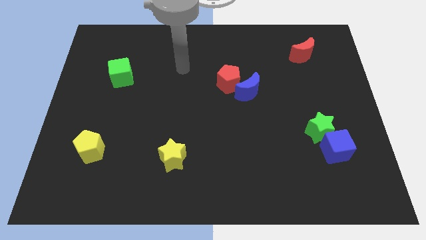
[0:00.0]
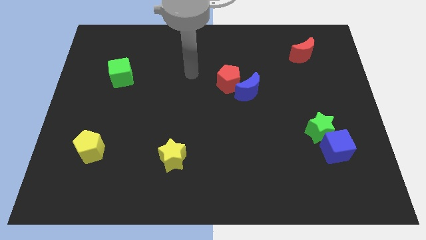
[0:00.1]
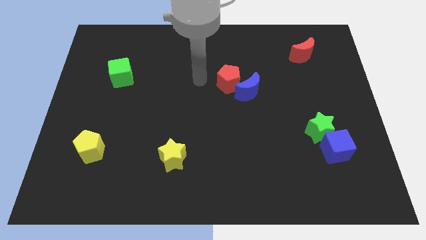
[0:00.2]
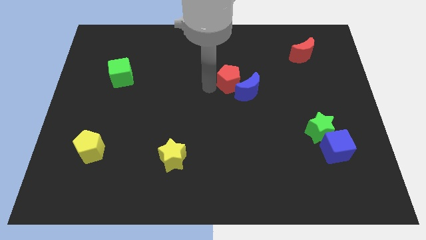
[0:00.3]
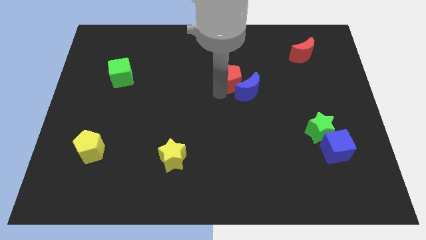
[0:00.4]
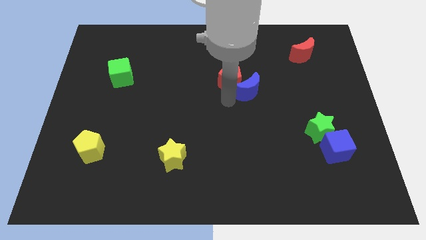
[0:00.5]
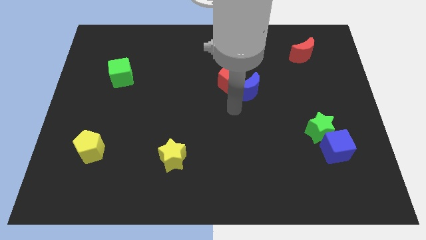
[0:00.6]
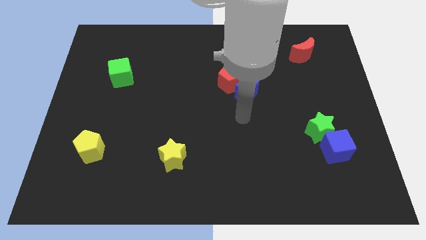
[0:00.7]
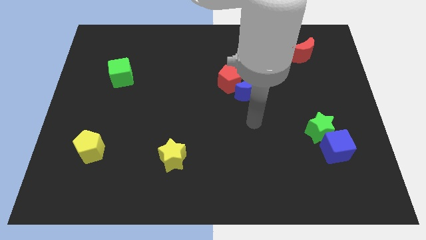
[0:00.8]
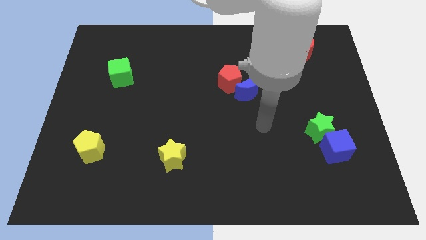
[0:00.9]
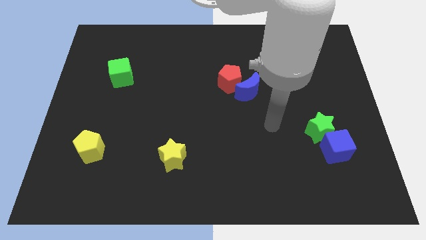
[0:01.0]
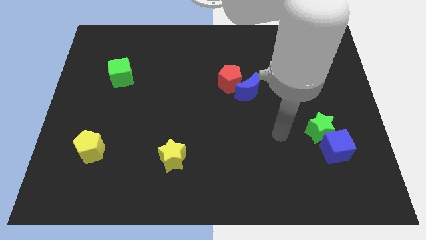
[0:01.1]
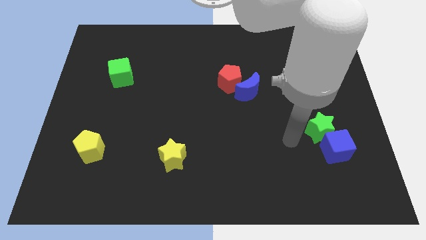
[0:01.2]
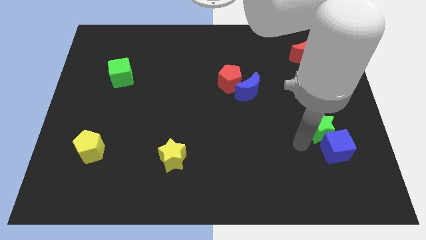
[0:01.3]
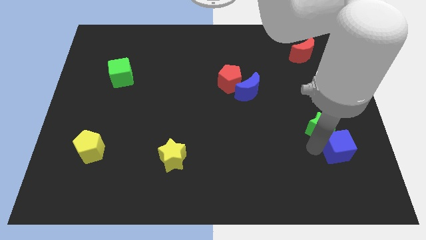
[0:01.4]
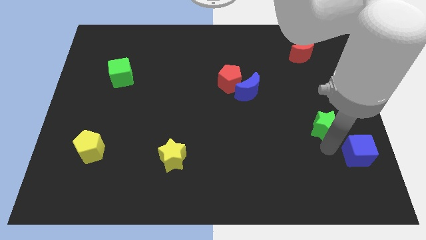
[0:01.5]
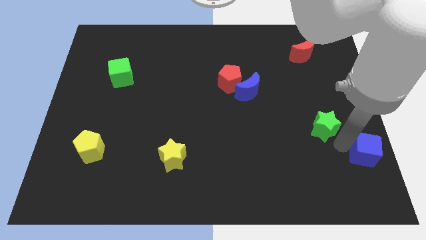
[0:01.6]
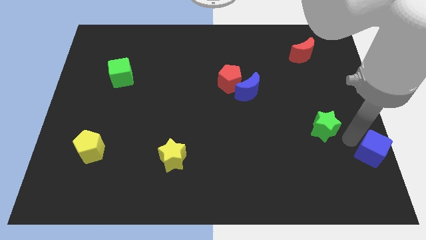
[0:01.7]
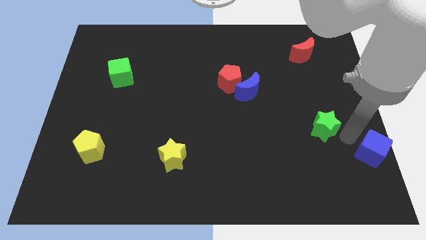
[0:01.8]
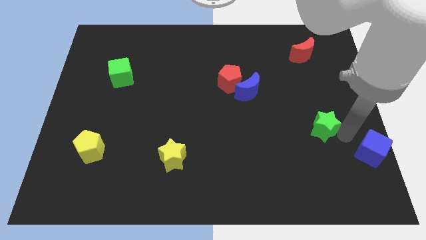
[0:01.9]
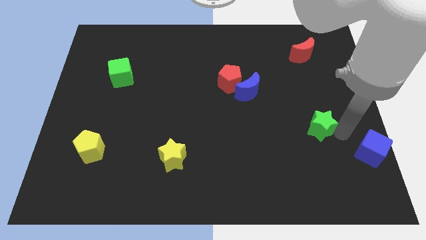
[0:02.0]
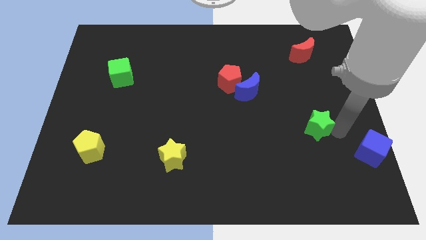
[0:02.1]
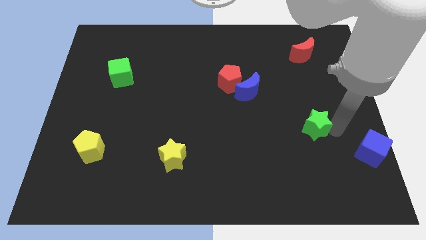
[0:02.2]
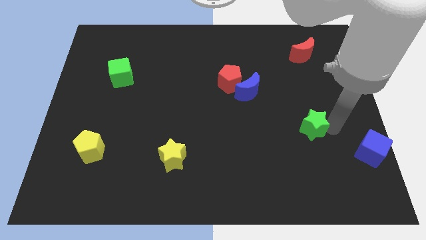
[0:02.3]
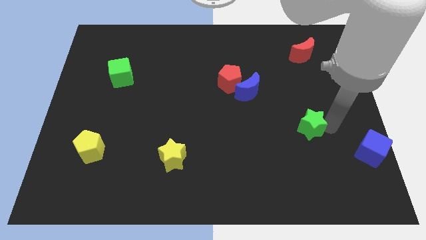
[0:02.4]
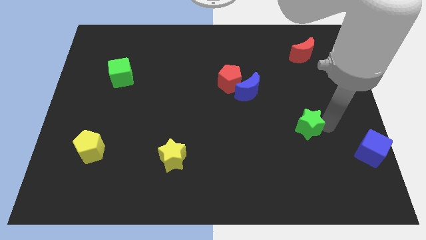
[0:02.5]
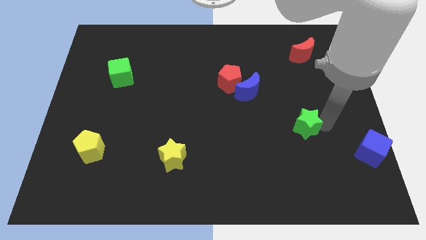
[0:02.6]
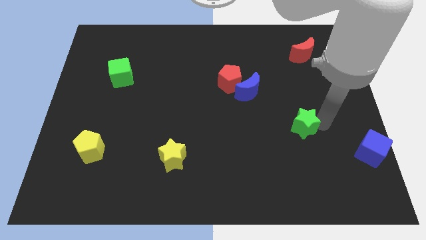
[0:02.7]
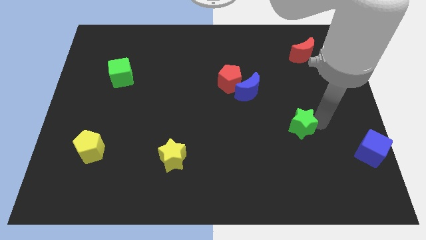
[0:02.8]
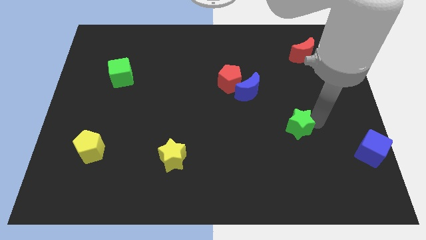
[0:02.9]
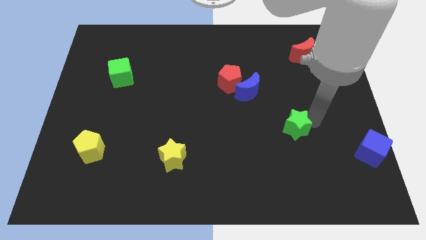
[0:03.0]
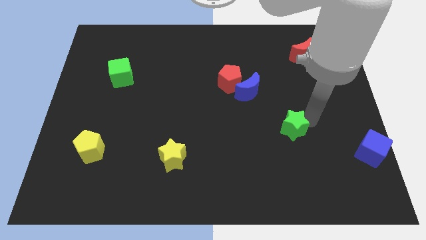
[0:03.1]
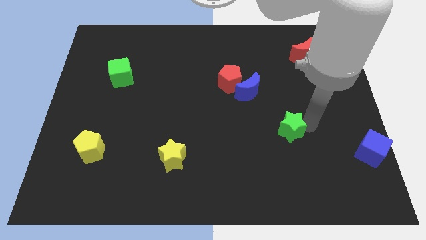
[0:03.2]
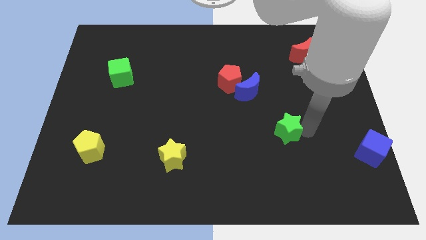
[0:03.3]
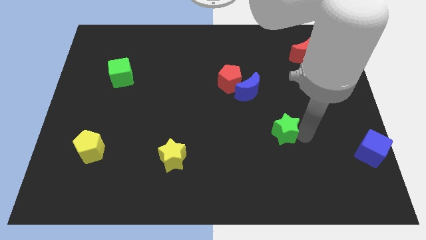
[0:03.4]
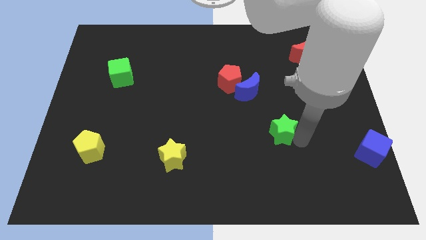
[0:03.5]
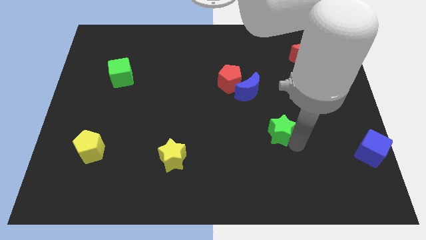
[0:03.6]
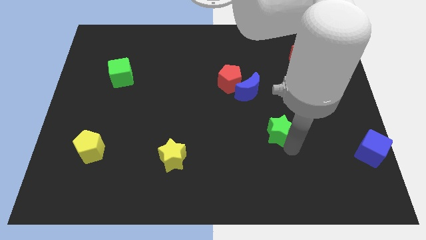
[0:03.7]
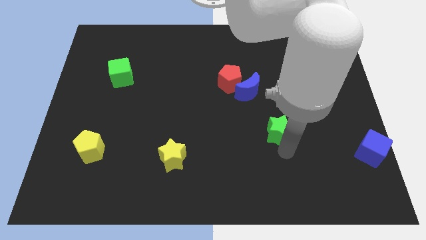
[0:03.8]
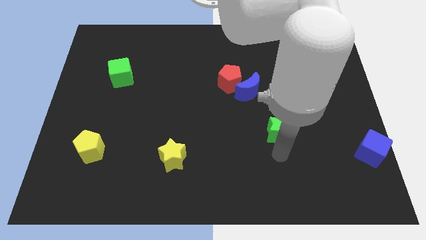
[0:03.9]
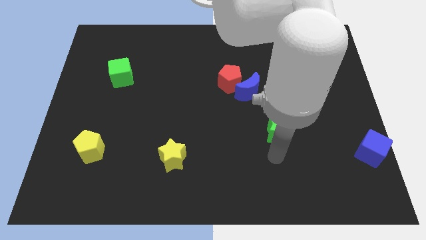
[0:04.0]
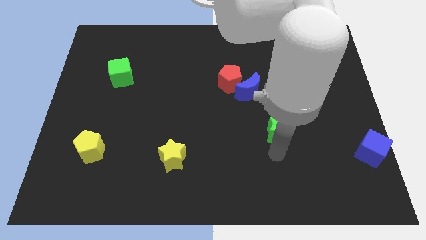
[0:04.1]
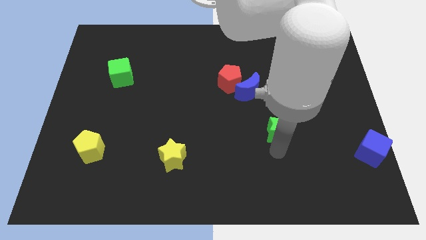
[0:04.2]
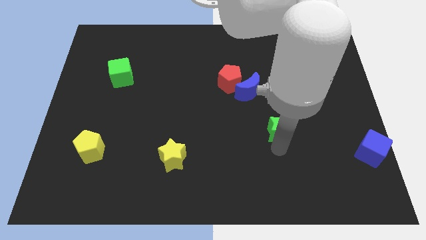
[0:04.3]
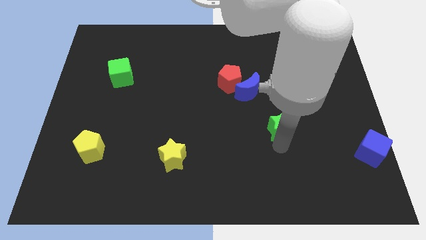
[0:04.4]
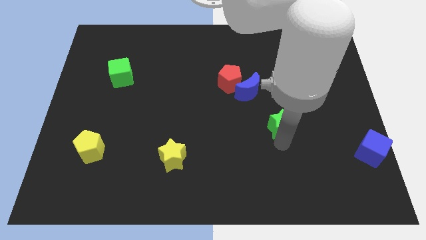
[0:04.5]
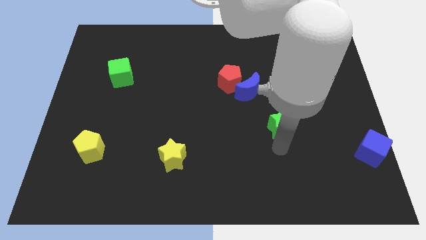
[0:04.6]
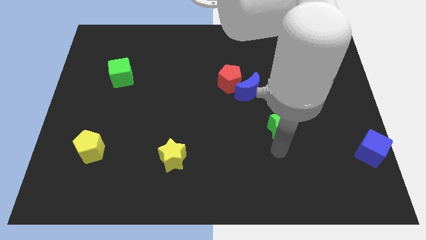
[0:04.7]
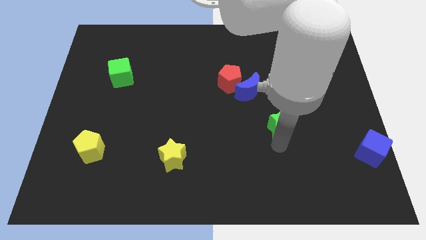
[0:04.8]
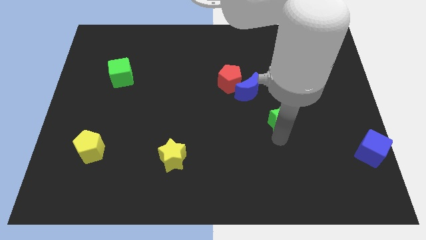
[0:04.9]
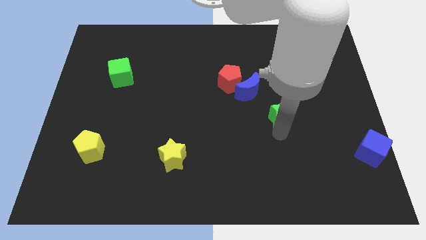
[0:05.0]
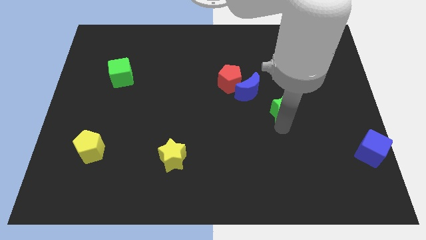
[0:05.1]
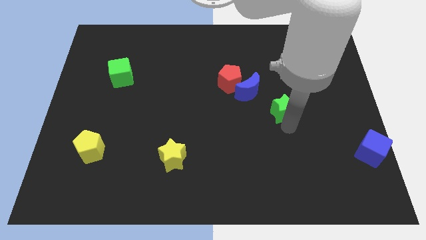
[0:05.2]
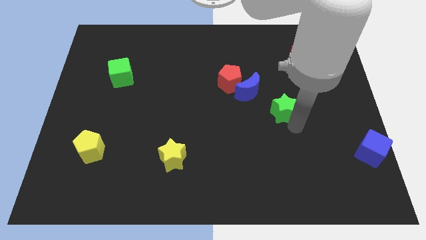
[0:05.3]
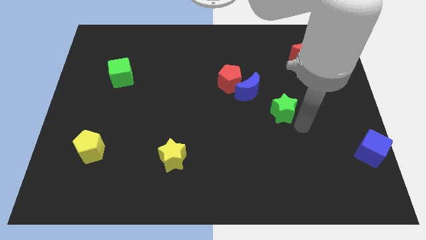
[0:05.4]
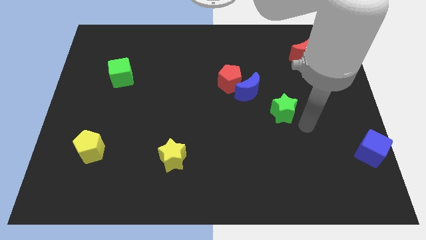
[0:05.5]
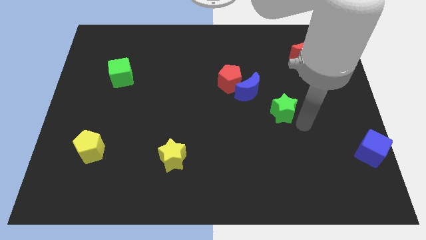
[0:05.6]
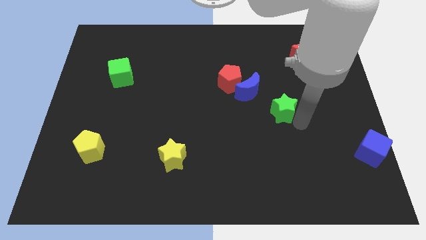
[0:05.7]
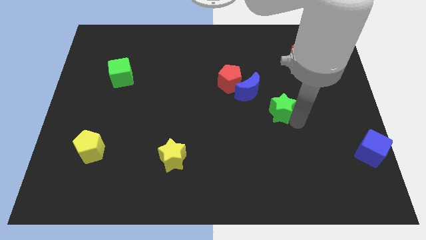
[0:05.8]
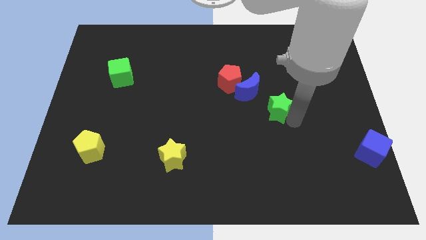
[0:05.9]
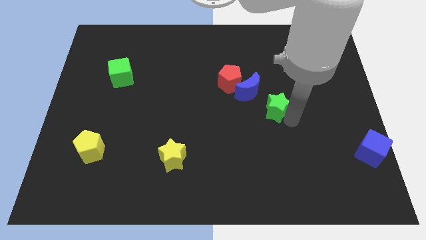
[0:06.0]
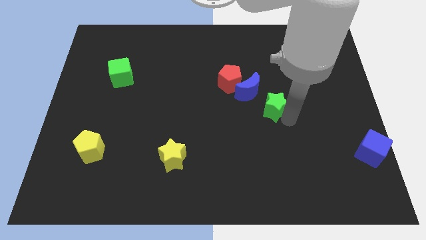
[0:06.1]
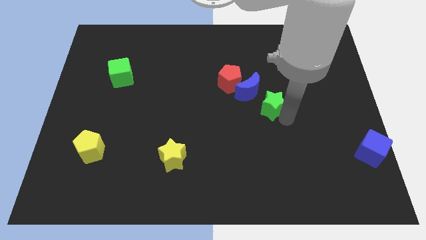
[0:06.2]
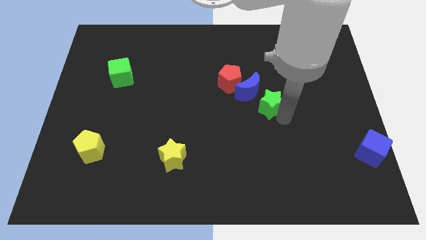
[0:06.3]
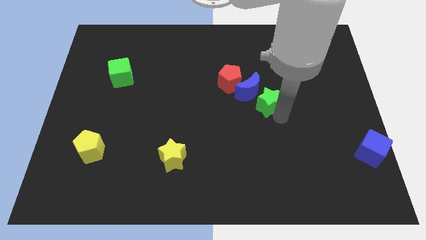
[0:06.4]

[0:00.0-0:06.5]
slide the green star close to the blue moon
